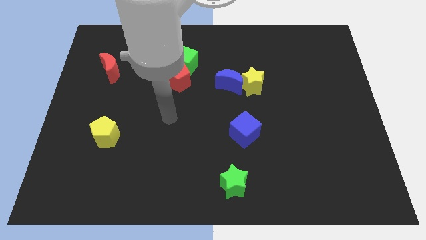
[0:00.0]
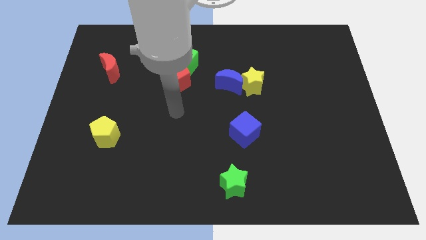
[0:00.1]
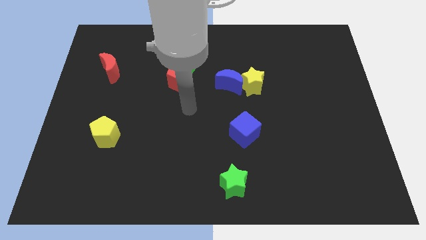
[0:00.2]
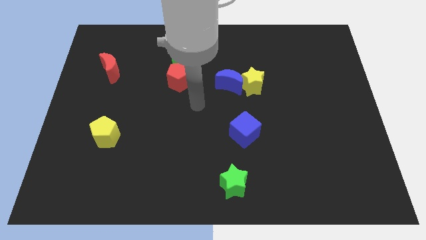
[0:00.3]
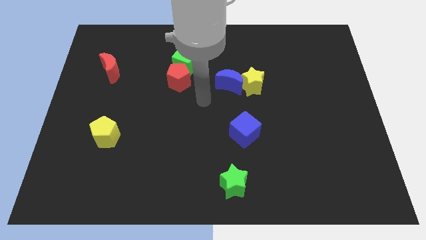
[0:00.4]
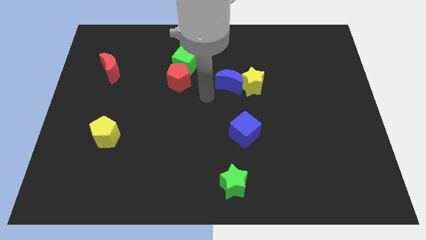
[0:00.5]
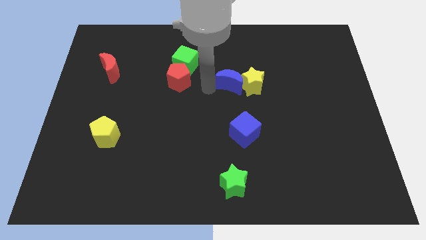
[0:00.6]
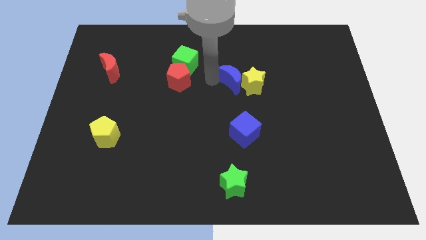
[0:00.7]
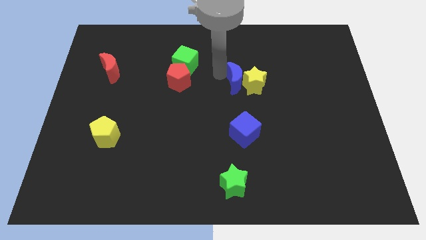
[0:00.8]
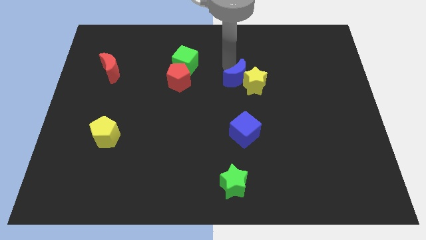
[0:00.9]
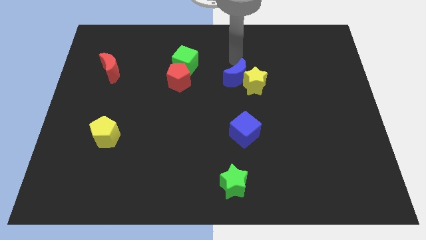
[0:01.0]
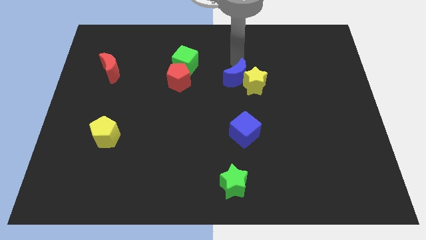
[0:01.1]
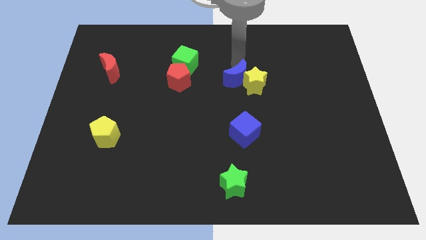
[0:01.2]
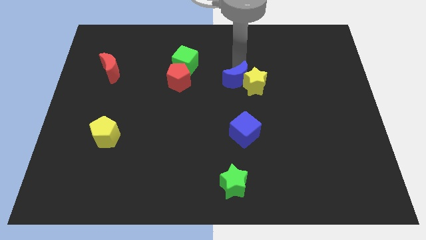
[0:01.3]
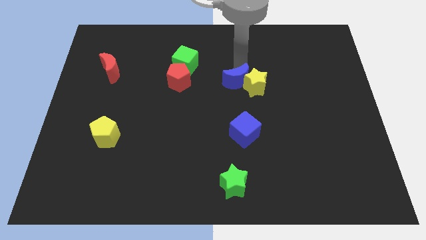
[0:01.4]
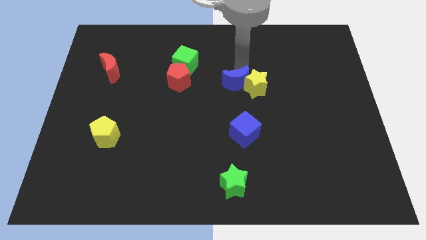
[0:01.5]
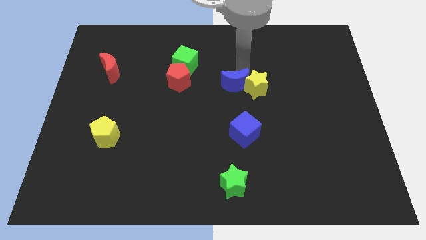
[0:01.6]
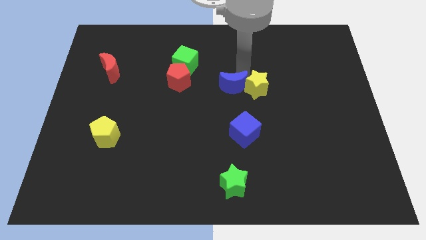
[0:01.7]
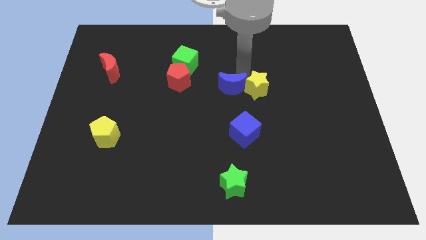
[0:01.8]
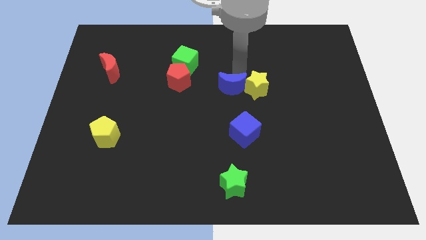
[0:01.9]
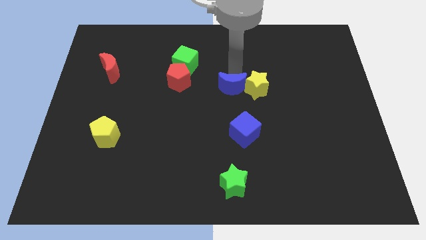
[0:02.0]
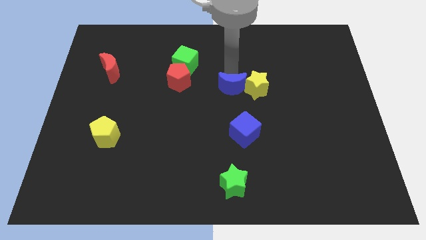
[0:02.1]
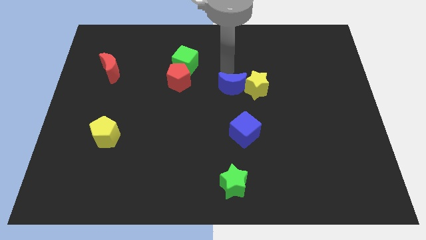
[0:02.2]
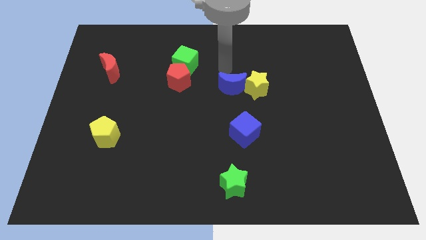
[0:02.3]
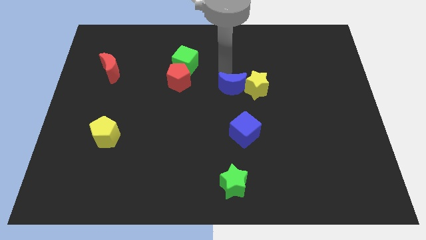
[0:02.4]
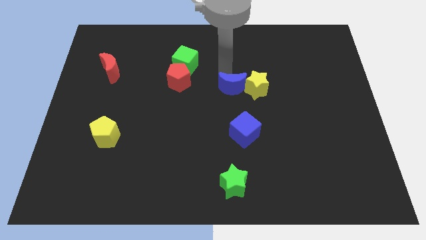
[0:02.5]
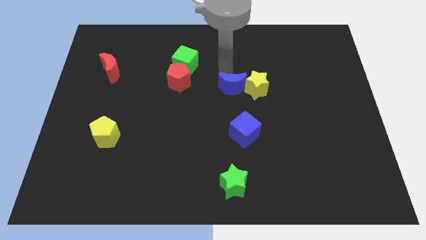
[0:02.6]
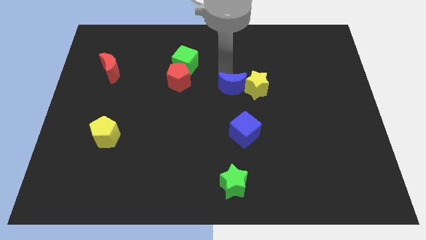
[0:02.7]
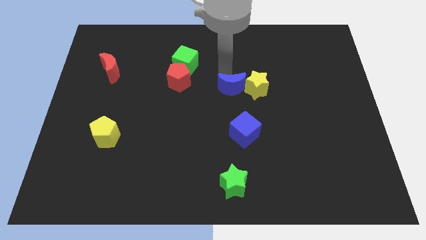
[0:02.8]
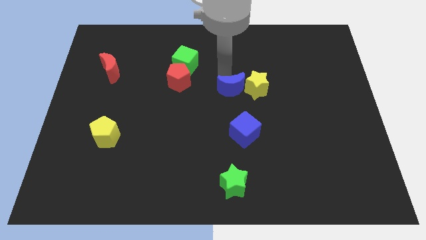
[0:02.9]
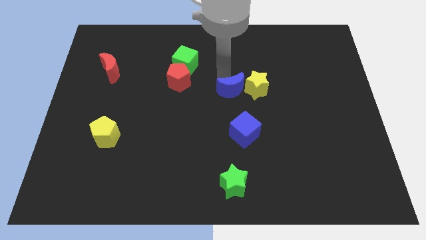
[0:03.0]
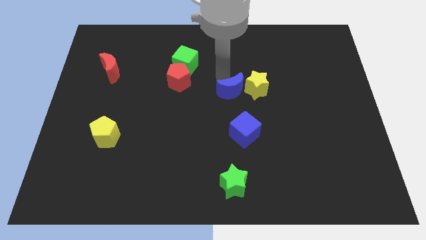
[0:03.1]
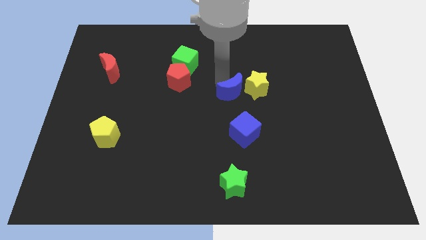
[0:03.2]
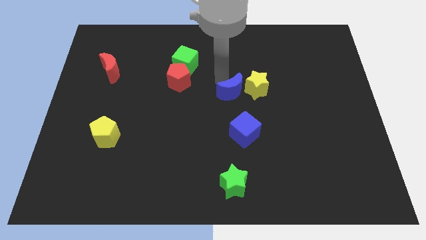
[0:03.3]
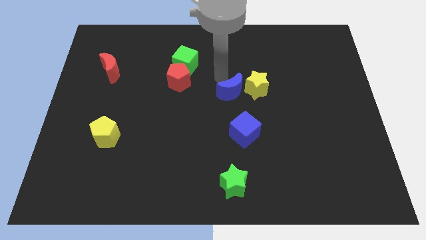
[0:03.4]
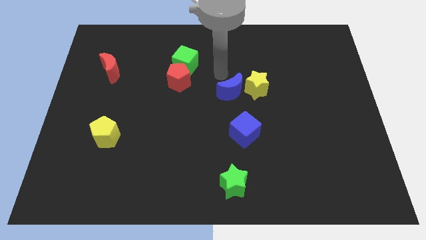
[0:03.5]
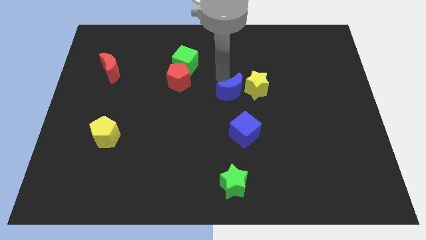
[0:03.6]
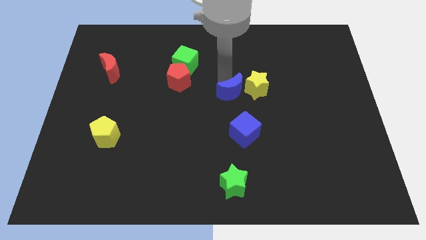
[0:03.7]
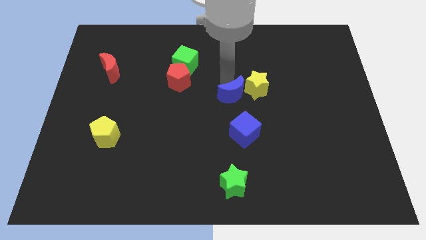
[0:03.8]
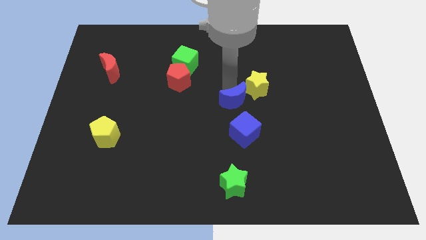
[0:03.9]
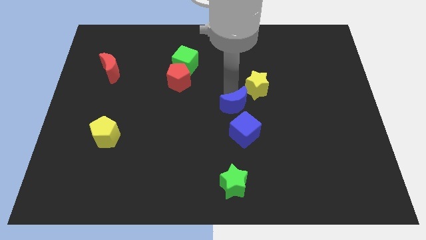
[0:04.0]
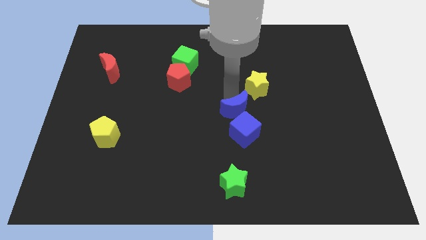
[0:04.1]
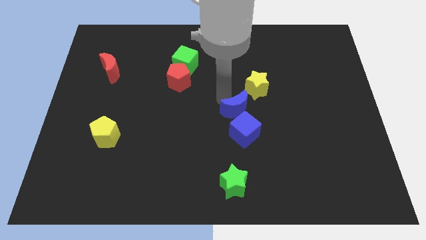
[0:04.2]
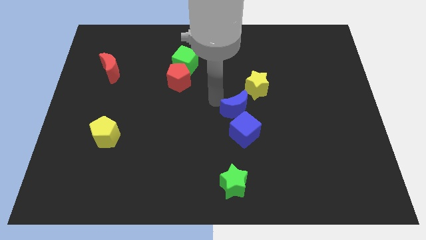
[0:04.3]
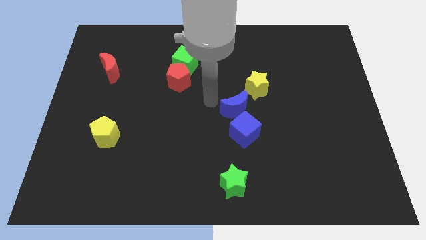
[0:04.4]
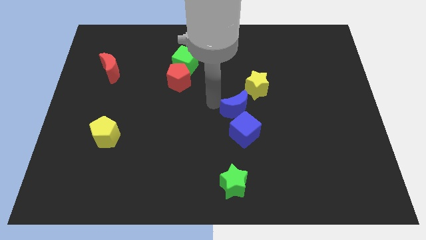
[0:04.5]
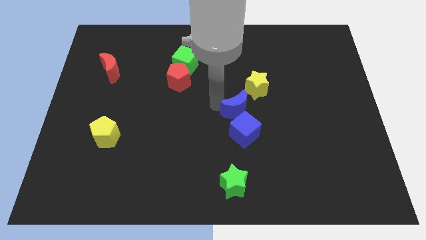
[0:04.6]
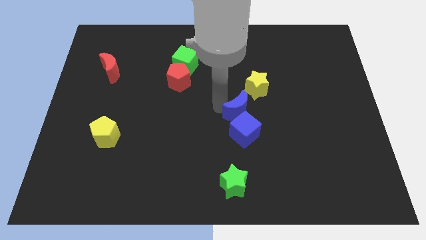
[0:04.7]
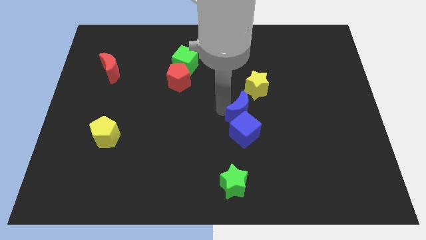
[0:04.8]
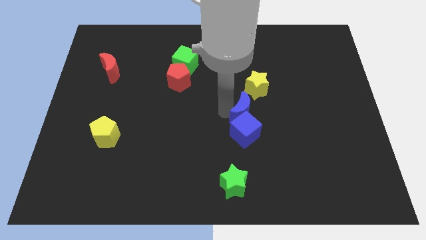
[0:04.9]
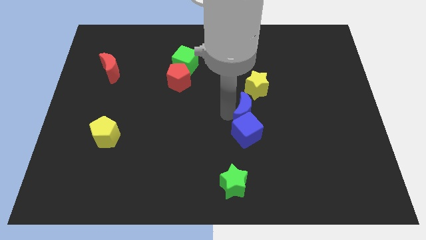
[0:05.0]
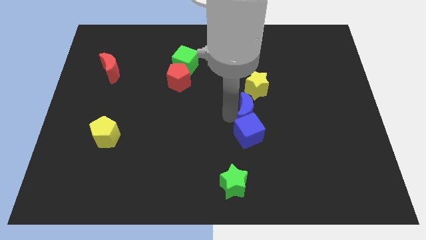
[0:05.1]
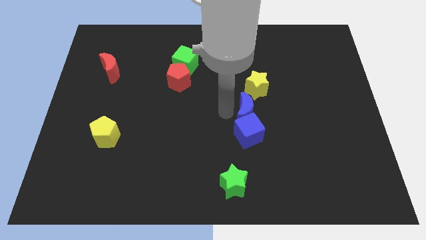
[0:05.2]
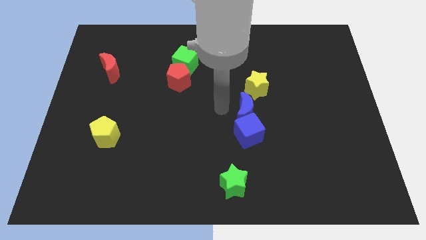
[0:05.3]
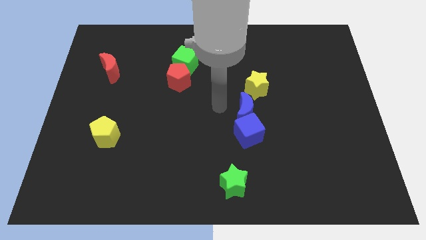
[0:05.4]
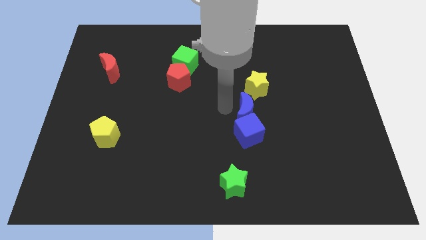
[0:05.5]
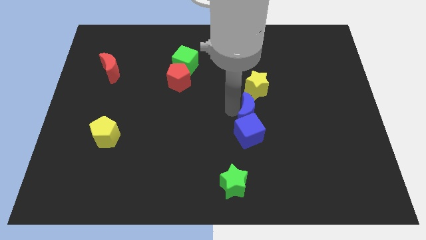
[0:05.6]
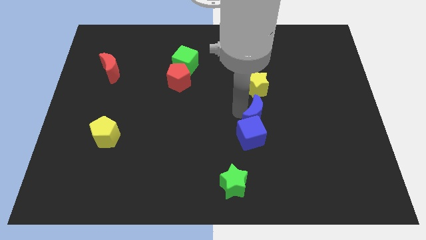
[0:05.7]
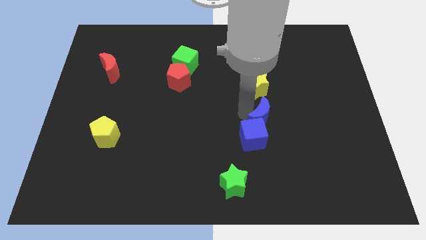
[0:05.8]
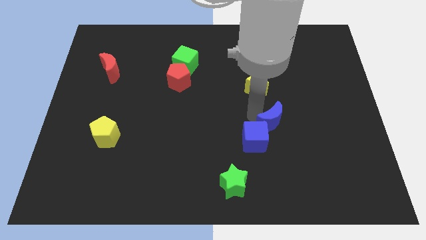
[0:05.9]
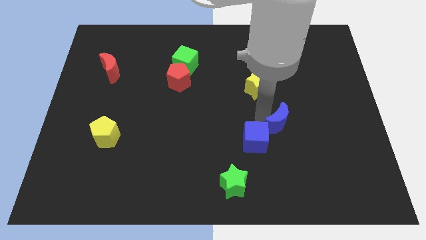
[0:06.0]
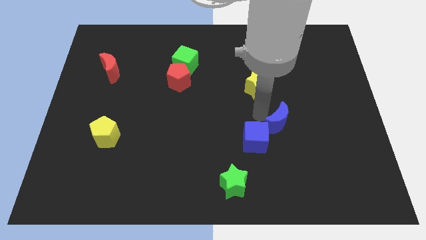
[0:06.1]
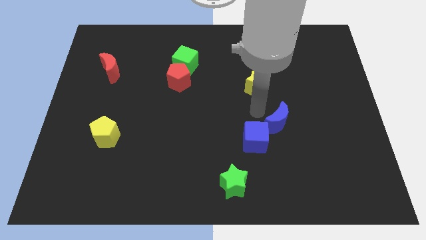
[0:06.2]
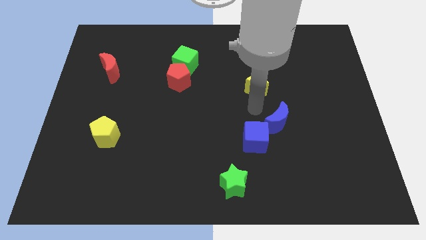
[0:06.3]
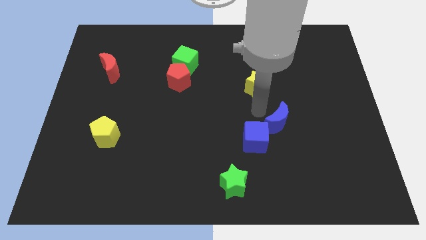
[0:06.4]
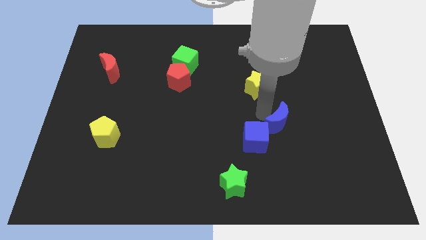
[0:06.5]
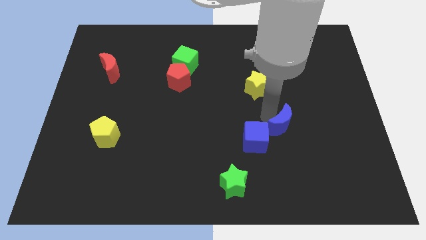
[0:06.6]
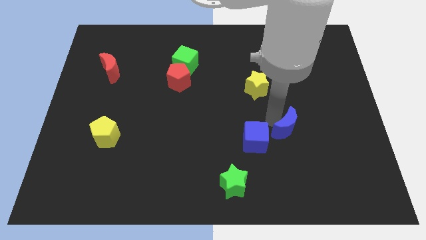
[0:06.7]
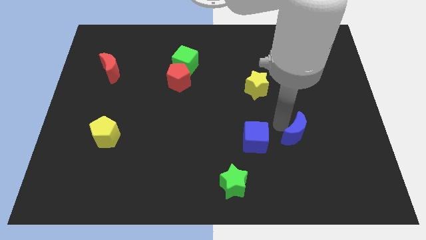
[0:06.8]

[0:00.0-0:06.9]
push the blue moon down and to the right

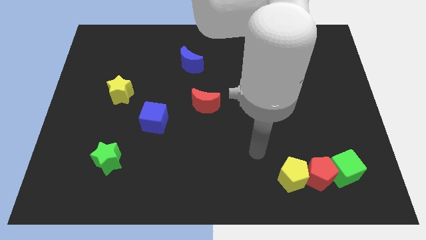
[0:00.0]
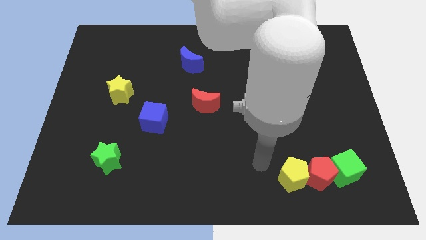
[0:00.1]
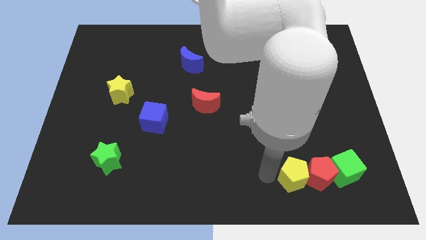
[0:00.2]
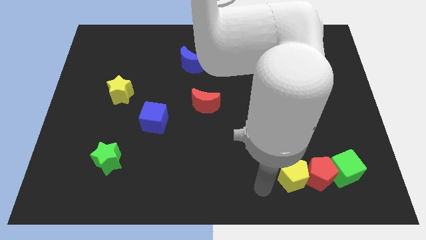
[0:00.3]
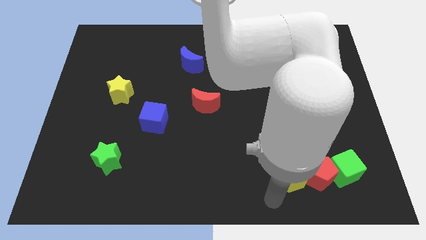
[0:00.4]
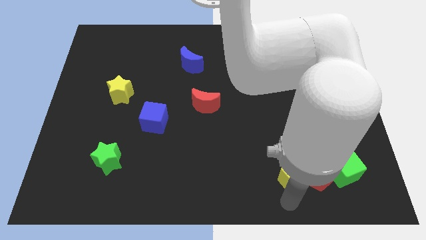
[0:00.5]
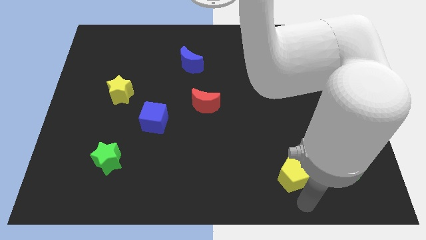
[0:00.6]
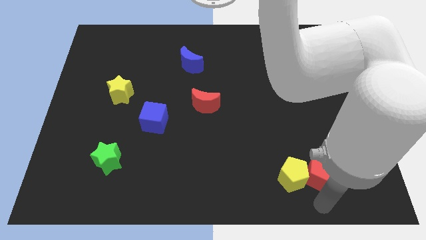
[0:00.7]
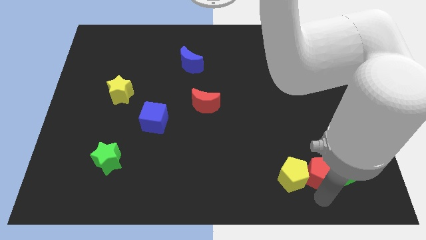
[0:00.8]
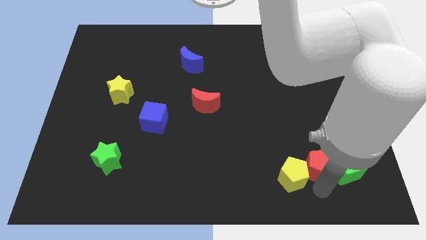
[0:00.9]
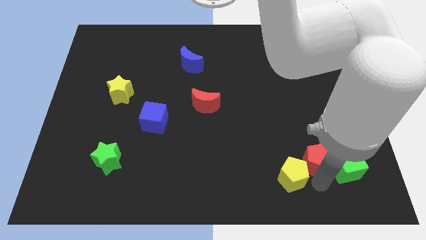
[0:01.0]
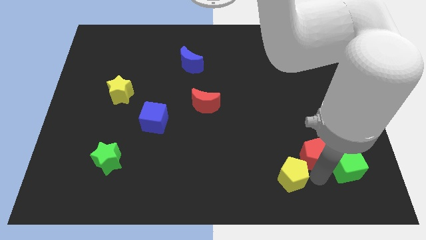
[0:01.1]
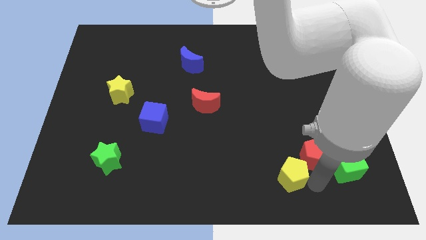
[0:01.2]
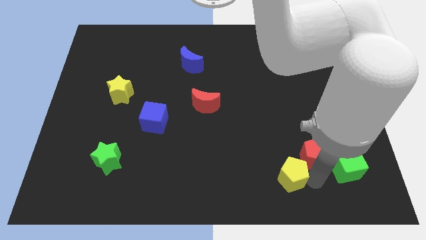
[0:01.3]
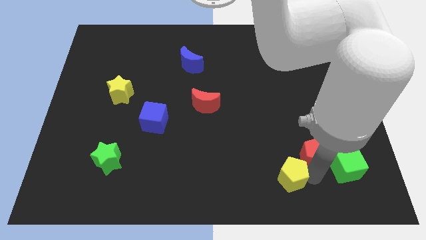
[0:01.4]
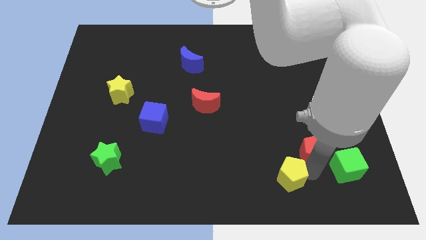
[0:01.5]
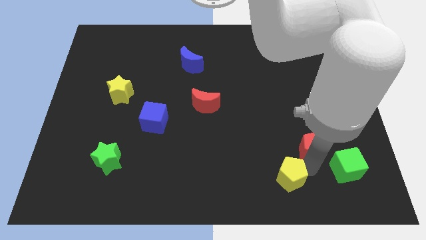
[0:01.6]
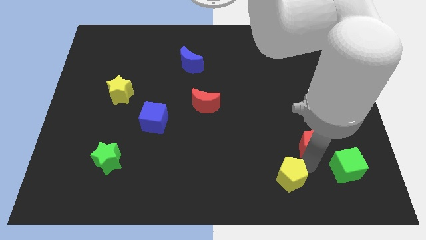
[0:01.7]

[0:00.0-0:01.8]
slide the red pentagon a little up
